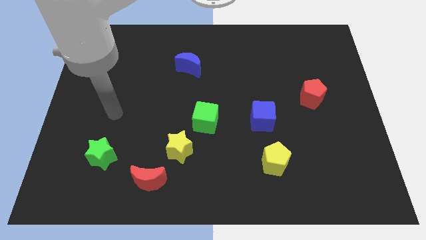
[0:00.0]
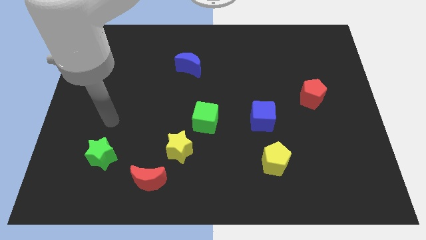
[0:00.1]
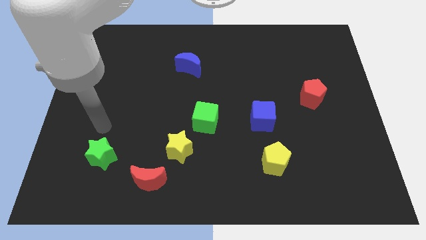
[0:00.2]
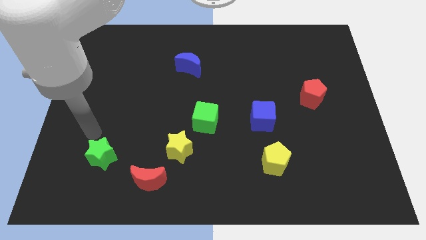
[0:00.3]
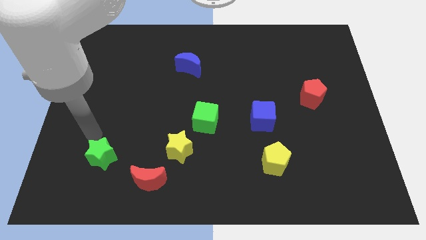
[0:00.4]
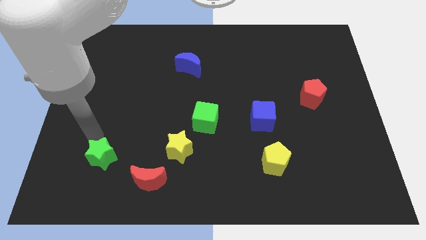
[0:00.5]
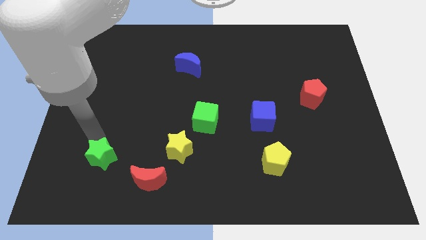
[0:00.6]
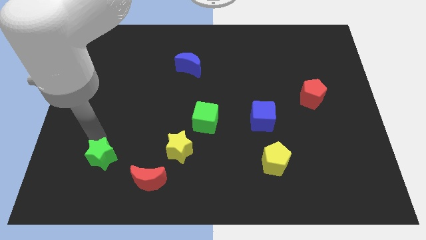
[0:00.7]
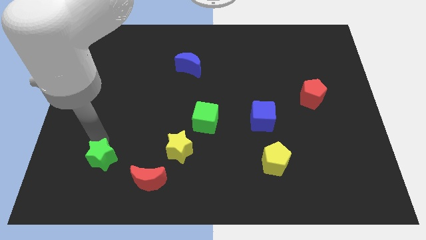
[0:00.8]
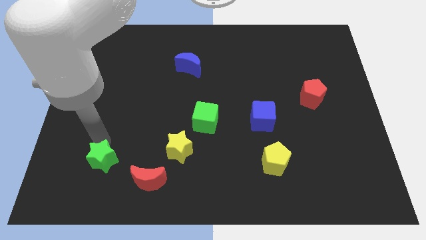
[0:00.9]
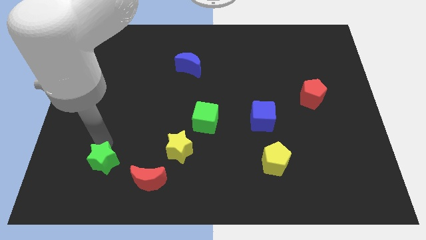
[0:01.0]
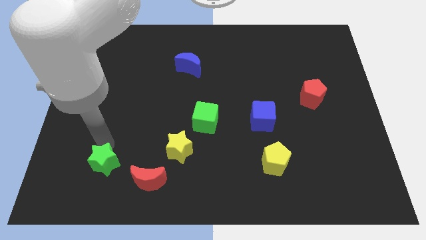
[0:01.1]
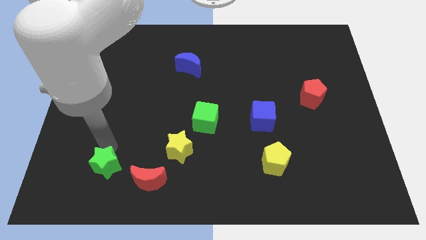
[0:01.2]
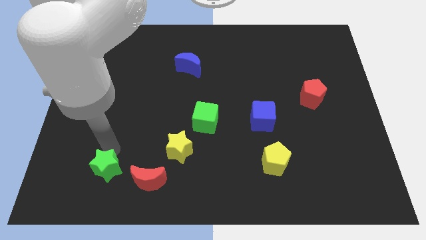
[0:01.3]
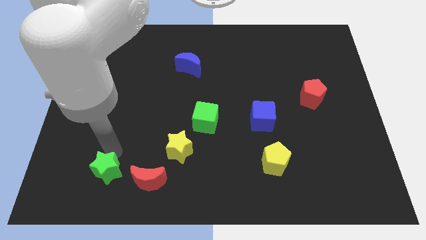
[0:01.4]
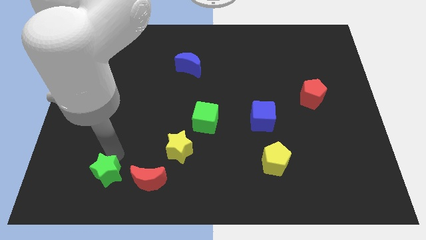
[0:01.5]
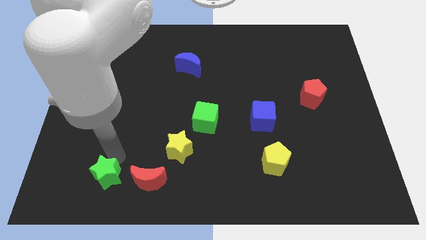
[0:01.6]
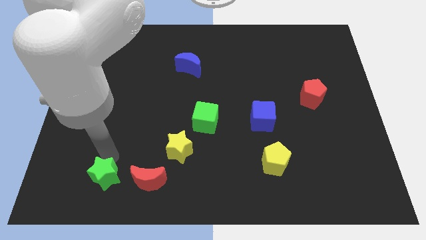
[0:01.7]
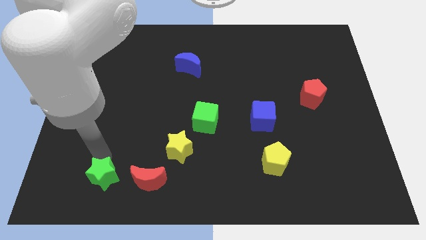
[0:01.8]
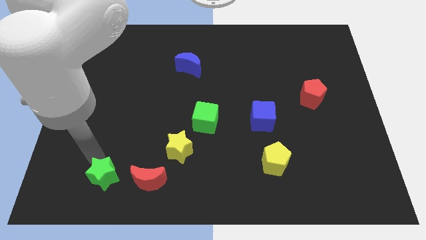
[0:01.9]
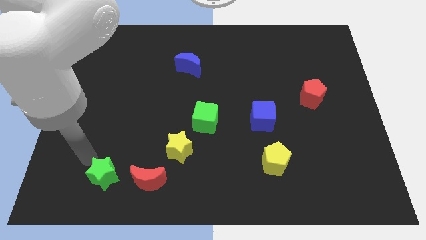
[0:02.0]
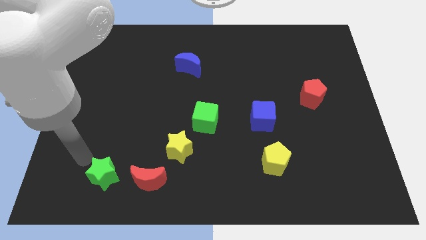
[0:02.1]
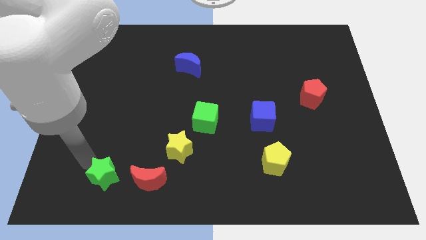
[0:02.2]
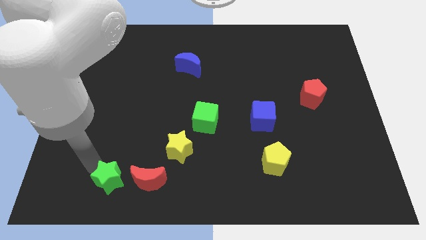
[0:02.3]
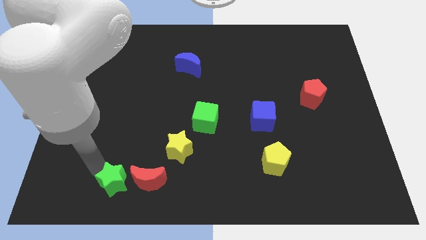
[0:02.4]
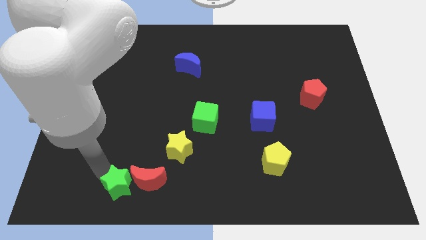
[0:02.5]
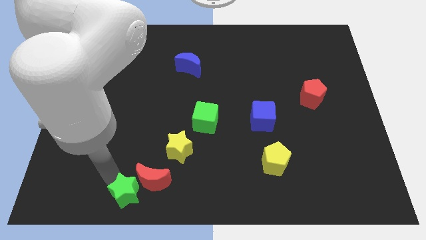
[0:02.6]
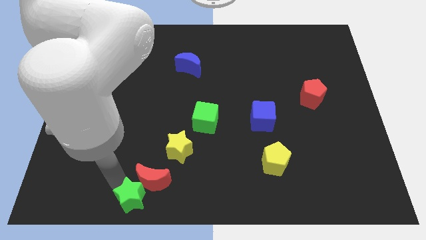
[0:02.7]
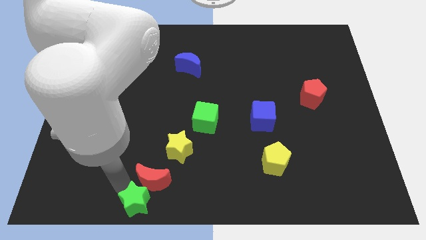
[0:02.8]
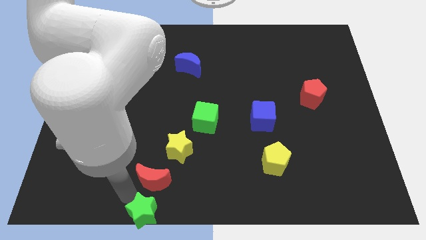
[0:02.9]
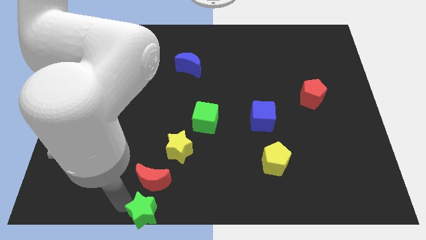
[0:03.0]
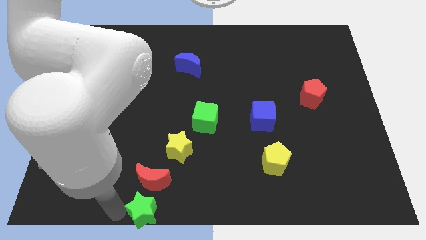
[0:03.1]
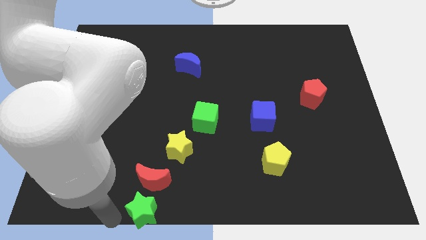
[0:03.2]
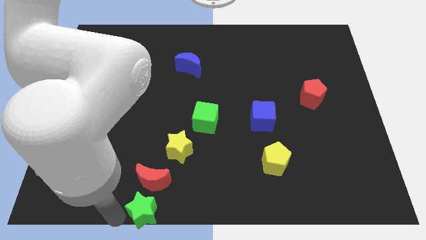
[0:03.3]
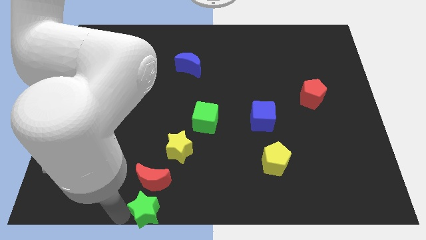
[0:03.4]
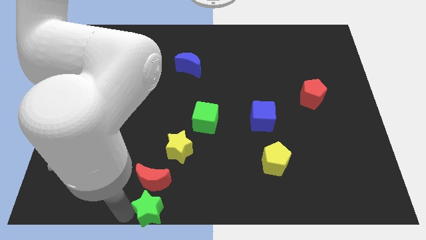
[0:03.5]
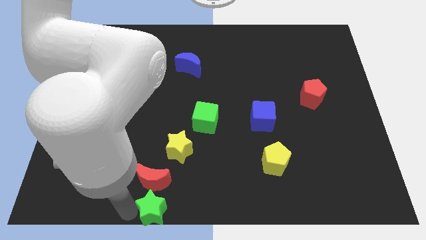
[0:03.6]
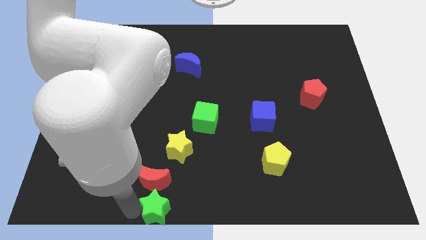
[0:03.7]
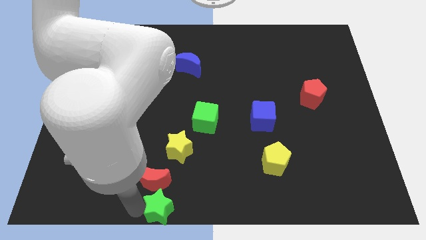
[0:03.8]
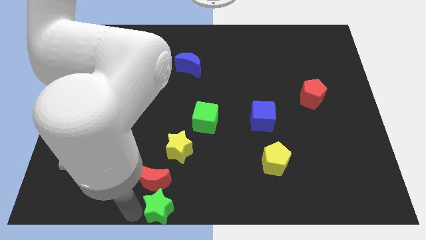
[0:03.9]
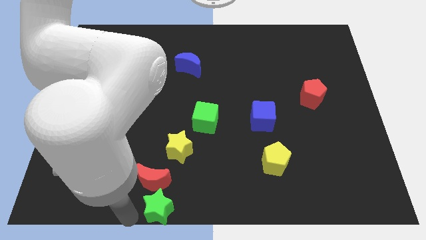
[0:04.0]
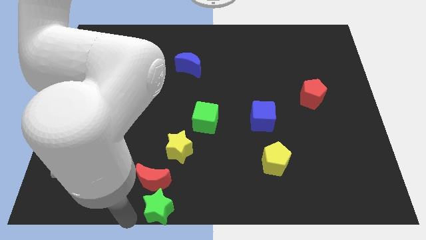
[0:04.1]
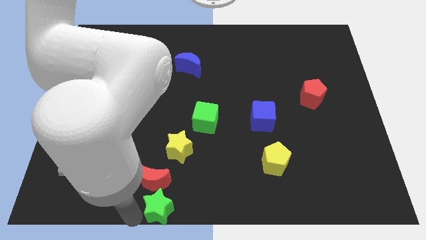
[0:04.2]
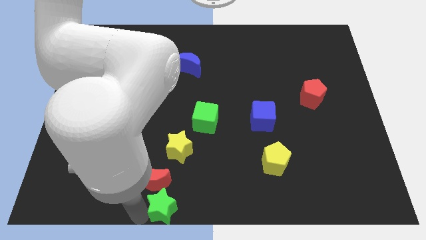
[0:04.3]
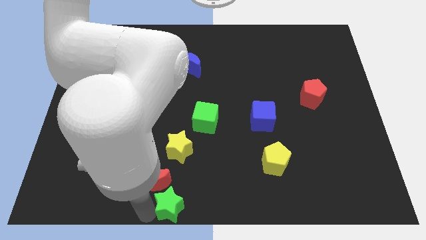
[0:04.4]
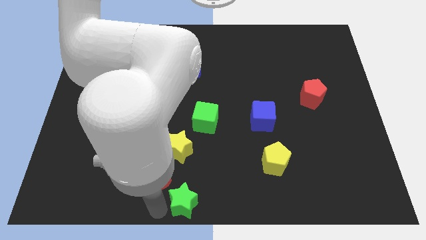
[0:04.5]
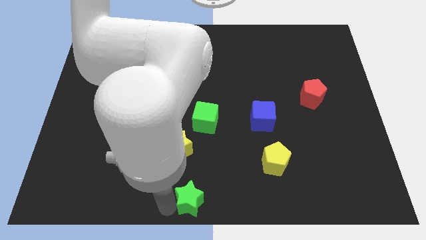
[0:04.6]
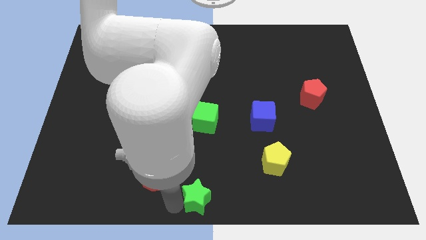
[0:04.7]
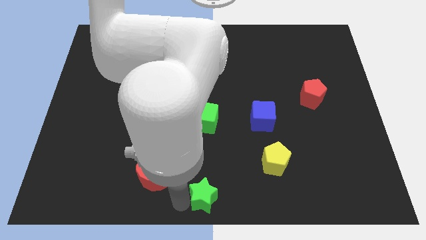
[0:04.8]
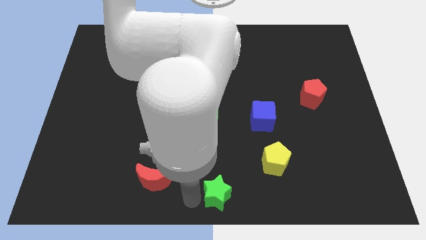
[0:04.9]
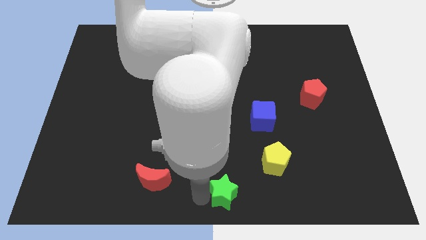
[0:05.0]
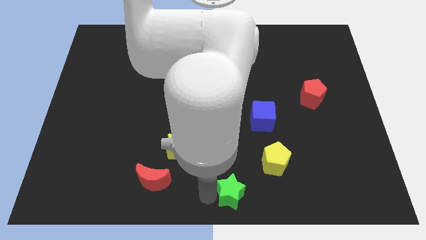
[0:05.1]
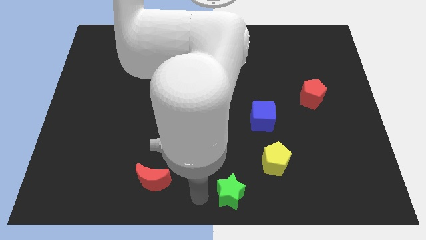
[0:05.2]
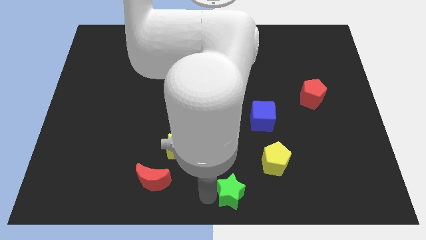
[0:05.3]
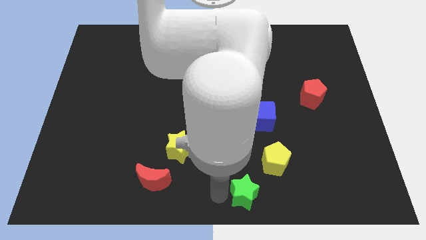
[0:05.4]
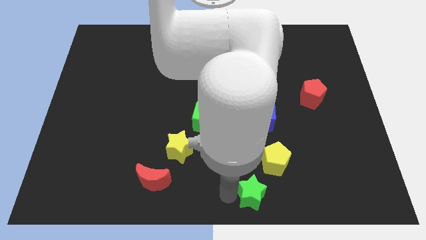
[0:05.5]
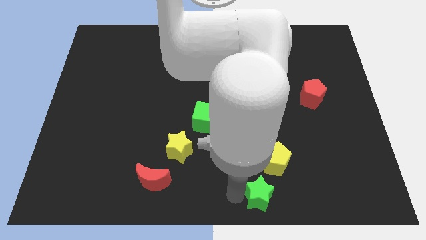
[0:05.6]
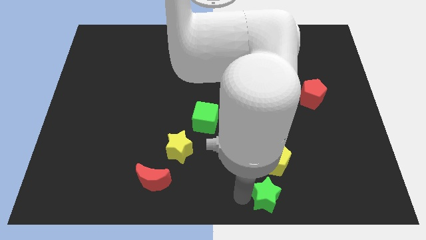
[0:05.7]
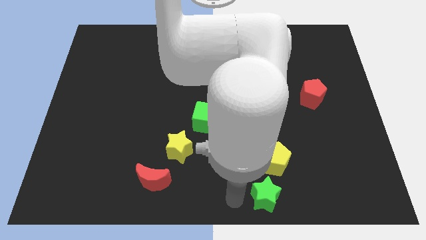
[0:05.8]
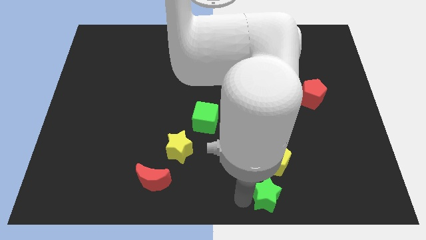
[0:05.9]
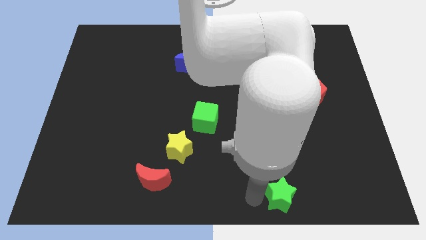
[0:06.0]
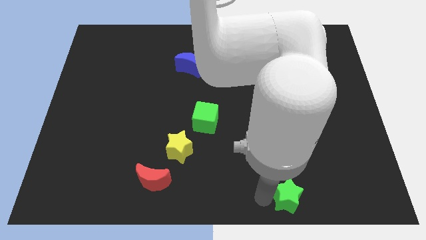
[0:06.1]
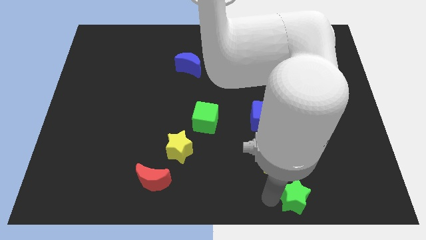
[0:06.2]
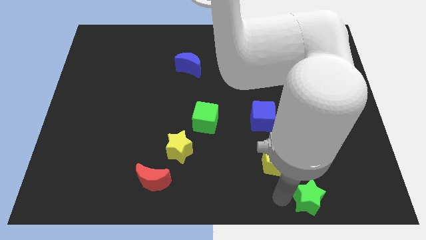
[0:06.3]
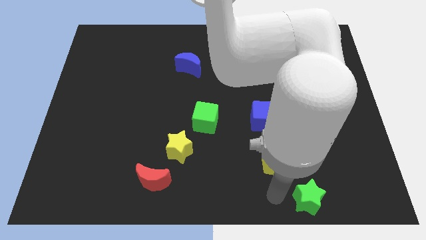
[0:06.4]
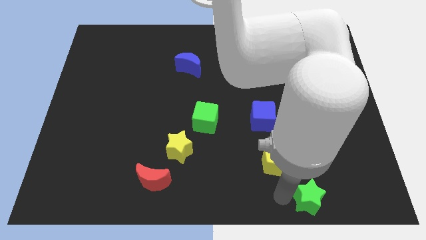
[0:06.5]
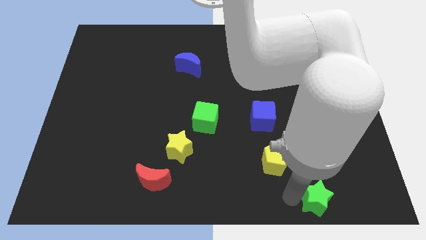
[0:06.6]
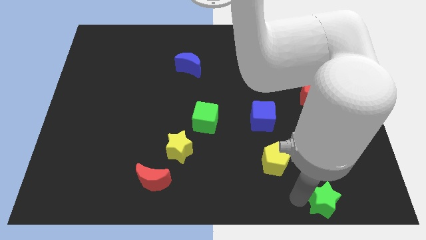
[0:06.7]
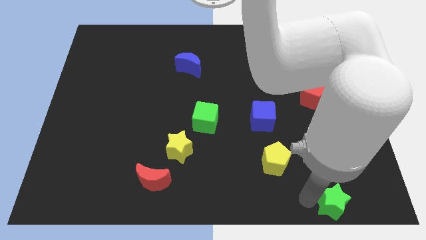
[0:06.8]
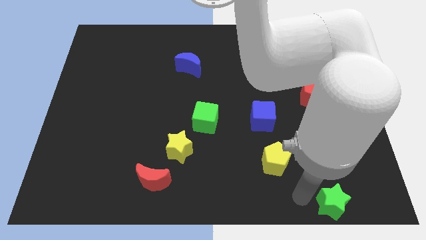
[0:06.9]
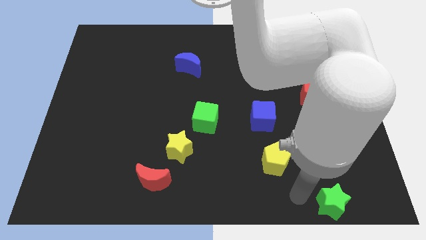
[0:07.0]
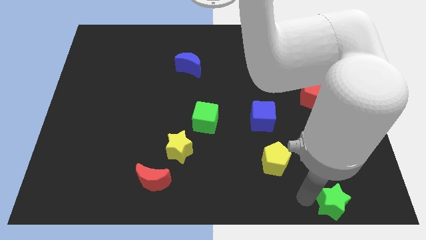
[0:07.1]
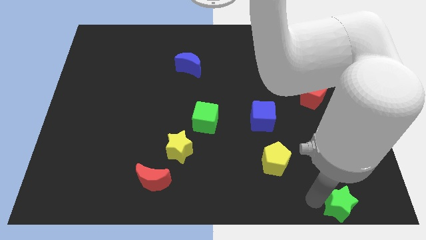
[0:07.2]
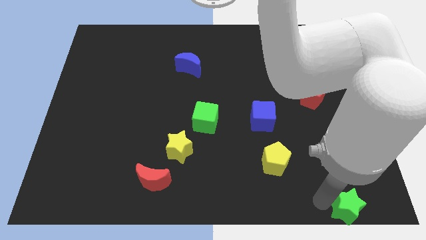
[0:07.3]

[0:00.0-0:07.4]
slide the green star to the lower right corner
